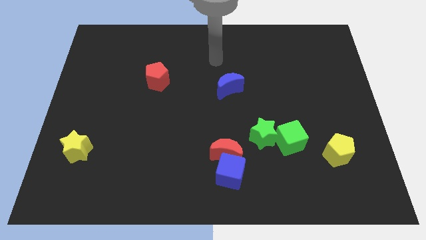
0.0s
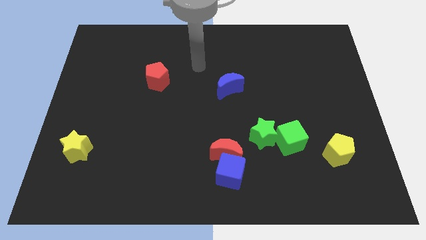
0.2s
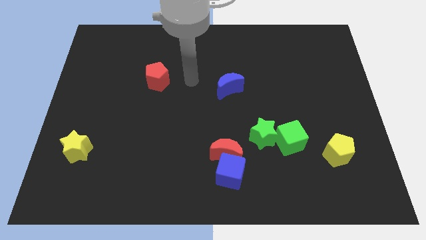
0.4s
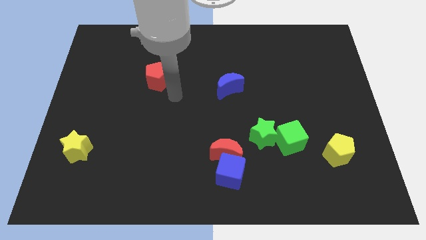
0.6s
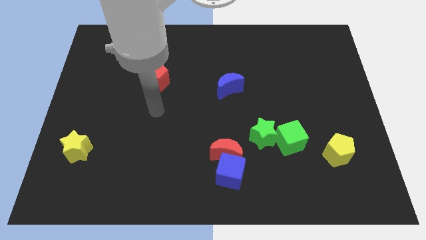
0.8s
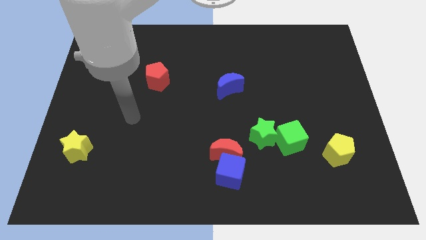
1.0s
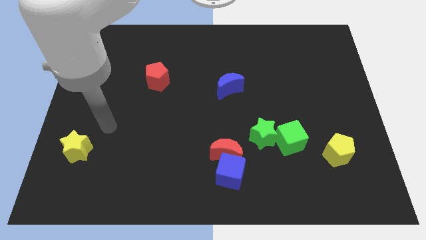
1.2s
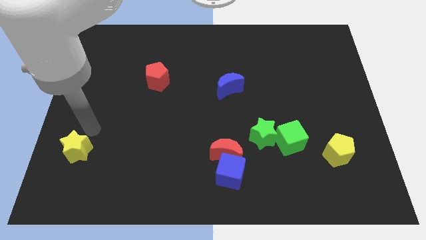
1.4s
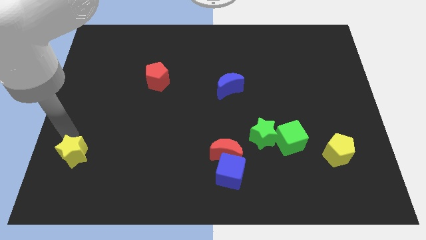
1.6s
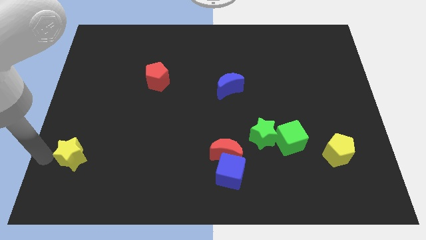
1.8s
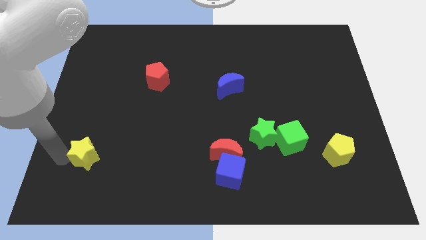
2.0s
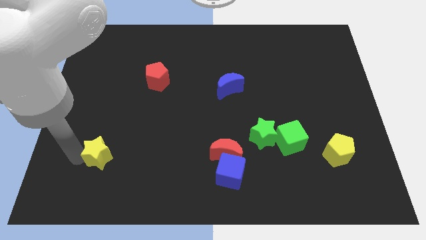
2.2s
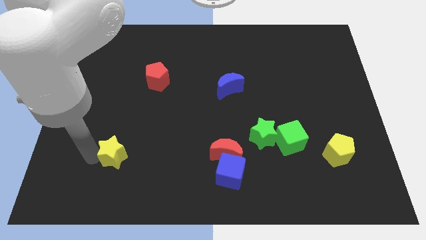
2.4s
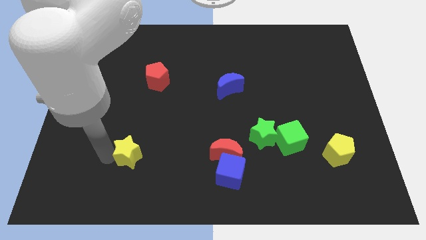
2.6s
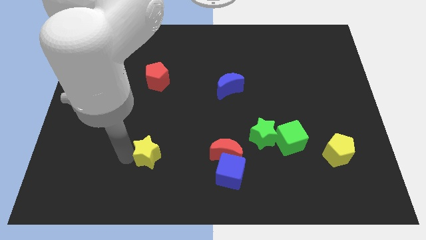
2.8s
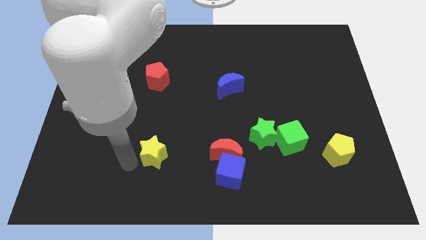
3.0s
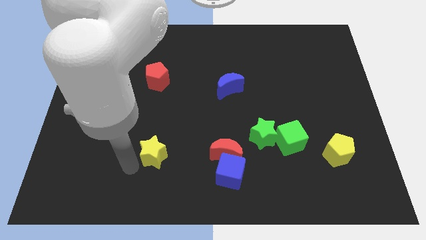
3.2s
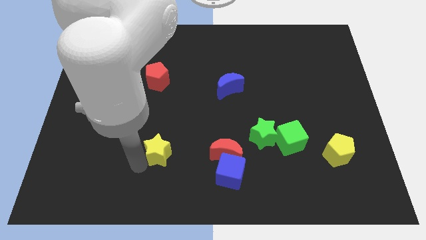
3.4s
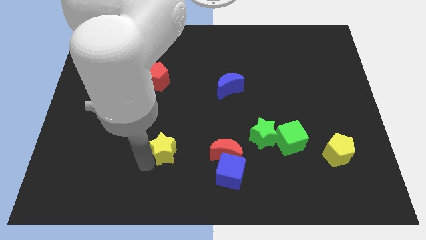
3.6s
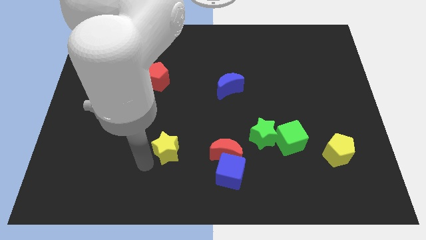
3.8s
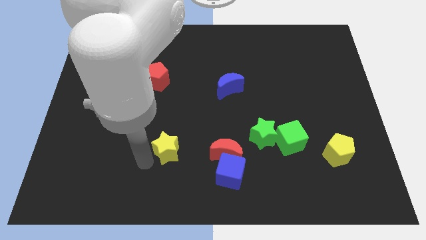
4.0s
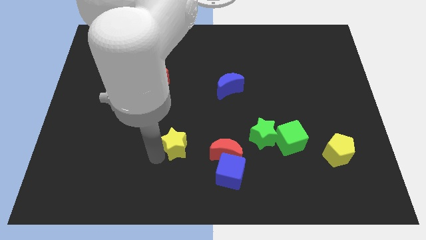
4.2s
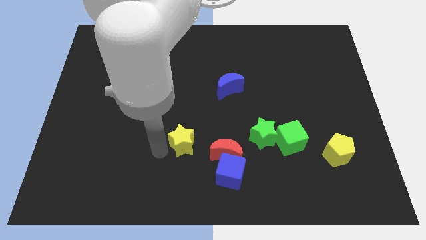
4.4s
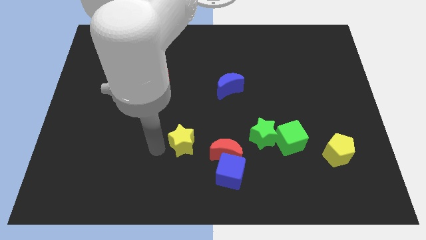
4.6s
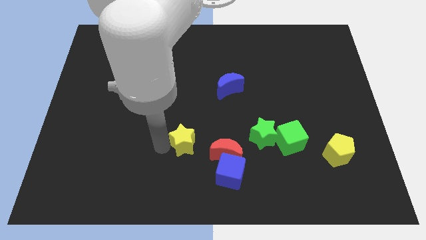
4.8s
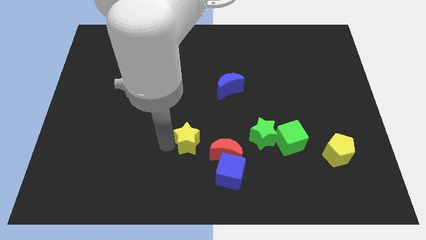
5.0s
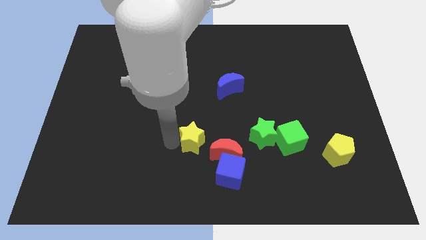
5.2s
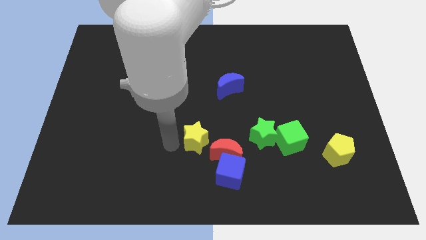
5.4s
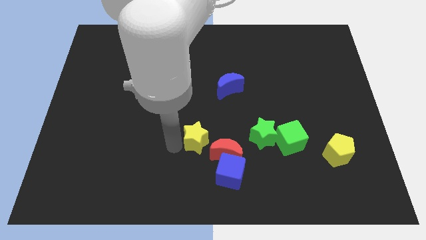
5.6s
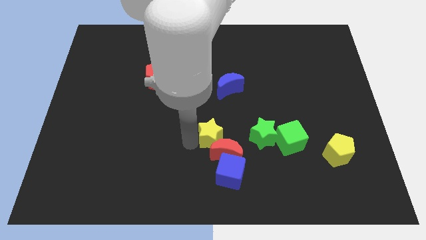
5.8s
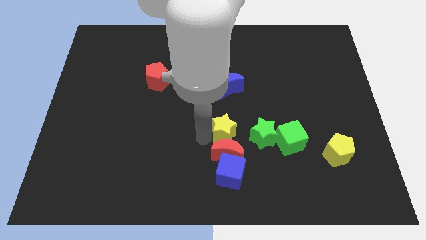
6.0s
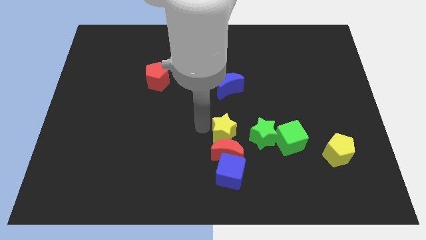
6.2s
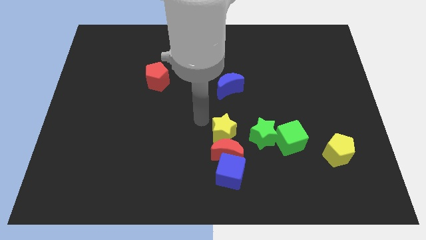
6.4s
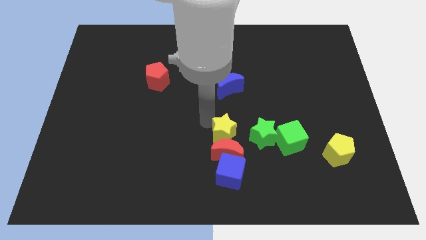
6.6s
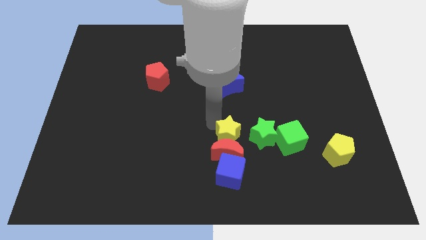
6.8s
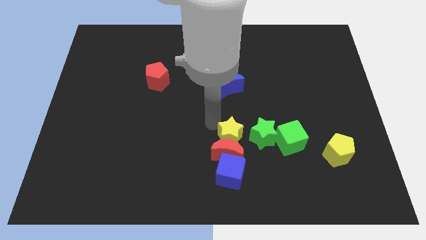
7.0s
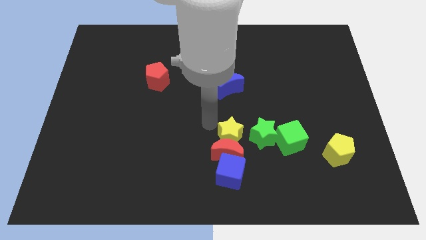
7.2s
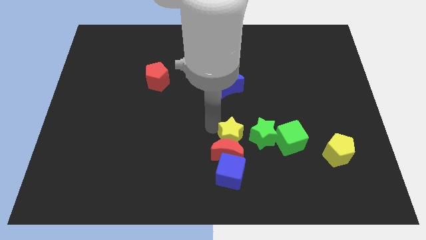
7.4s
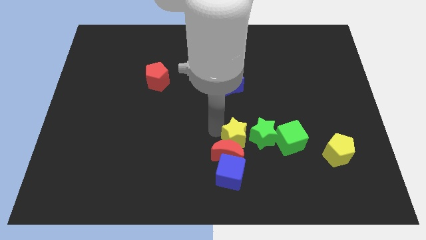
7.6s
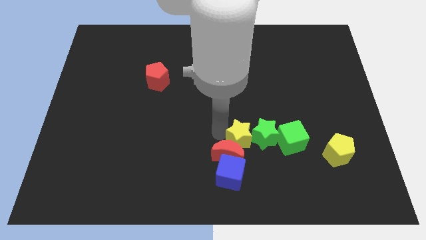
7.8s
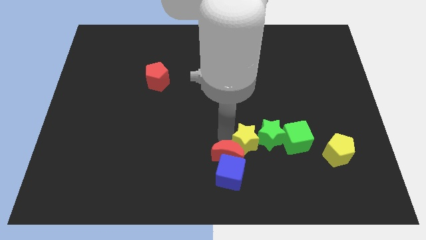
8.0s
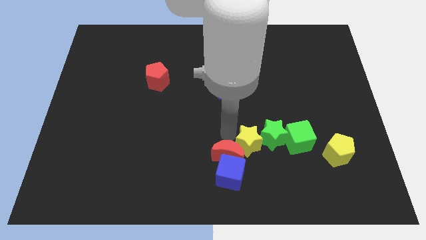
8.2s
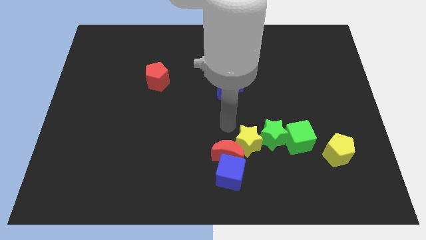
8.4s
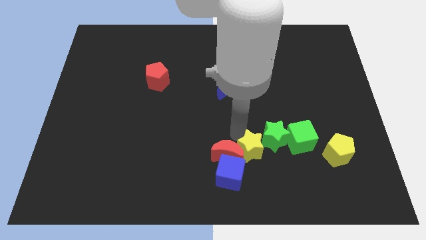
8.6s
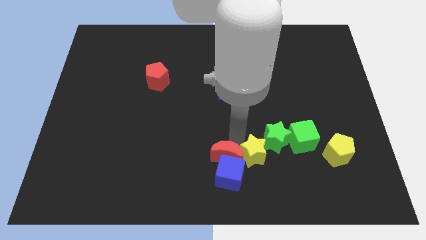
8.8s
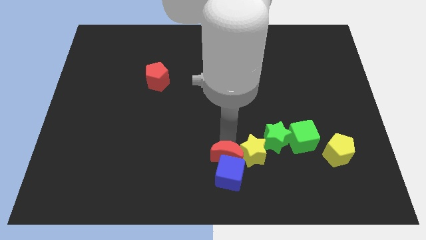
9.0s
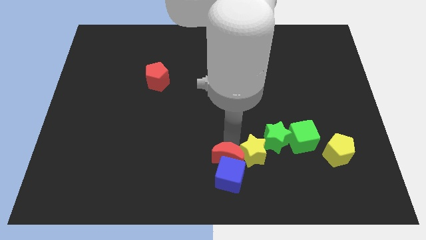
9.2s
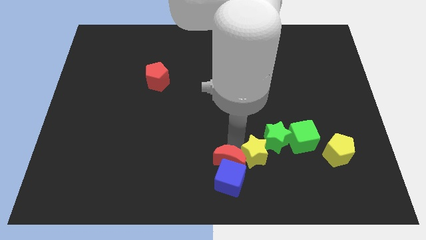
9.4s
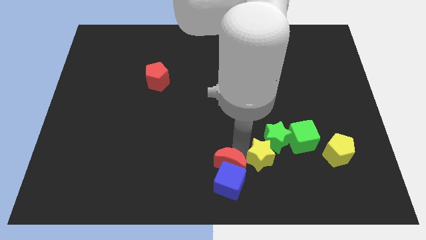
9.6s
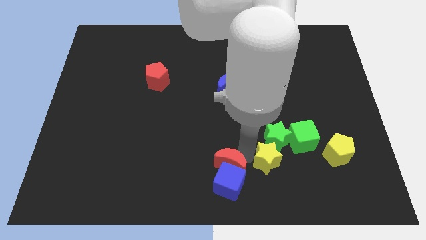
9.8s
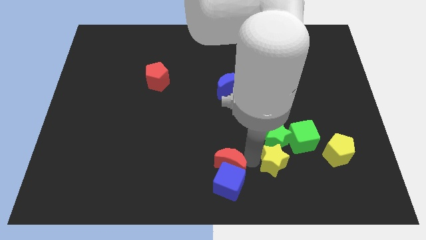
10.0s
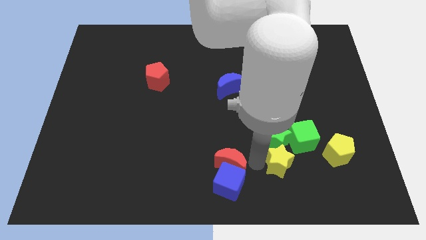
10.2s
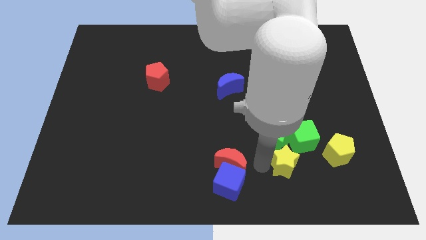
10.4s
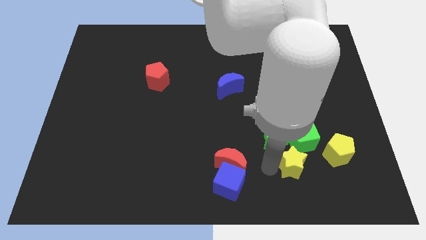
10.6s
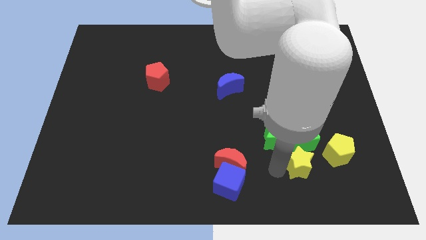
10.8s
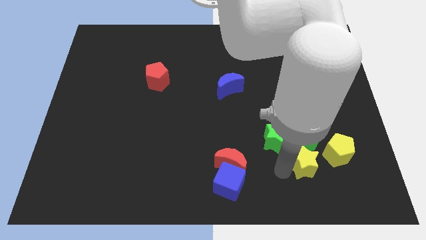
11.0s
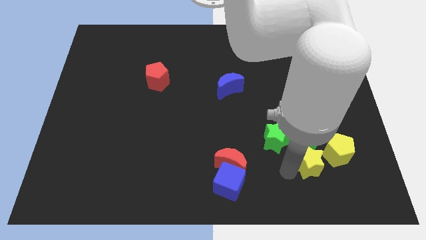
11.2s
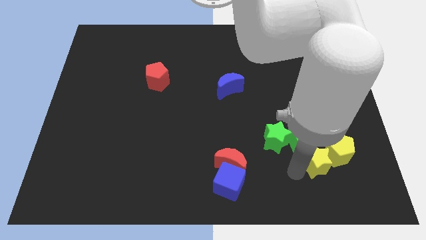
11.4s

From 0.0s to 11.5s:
put the yellow star to the yellow pentagon

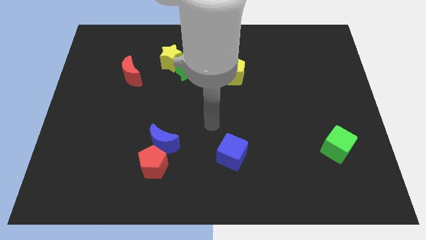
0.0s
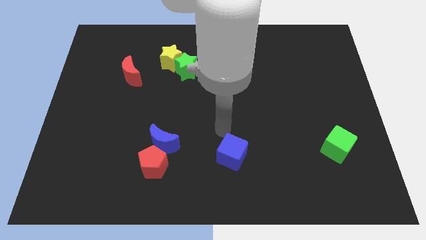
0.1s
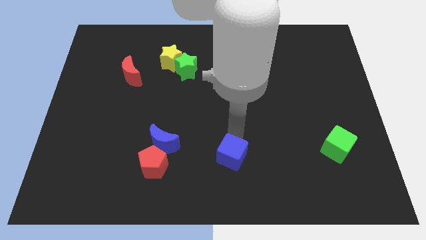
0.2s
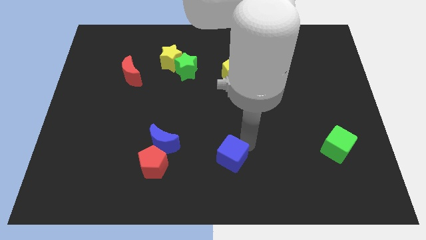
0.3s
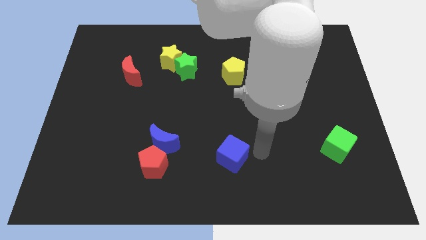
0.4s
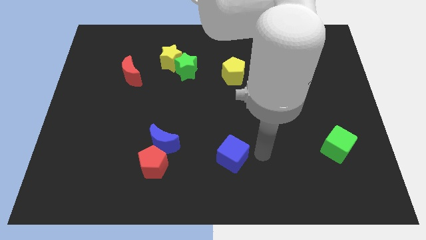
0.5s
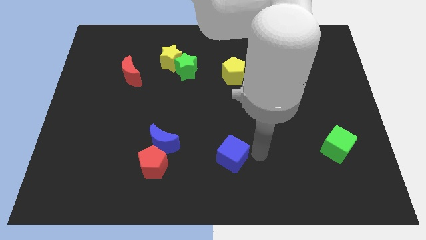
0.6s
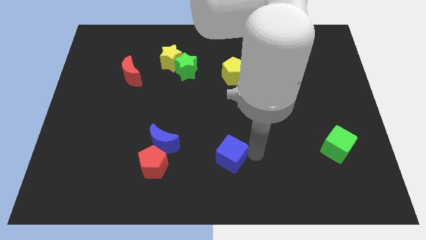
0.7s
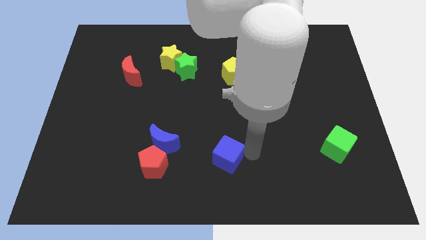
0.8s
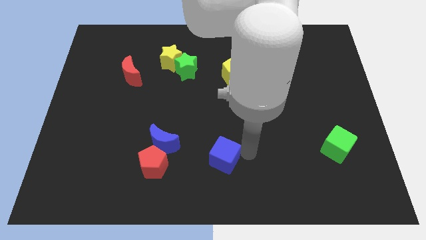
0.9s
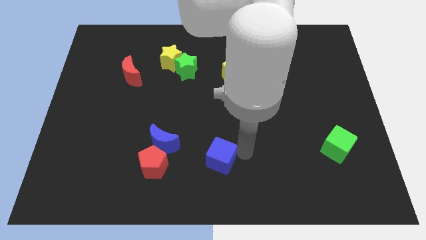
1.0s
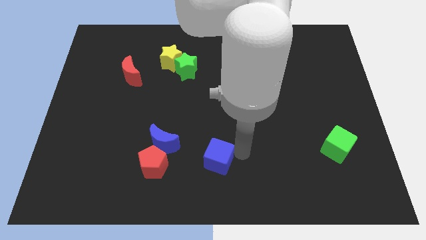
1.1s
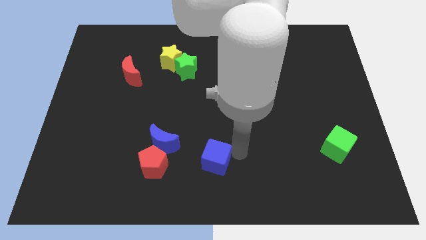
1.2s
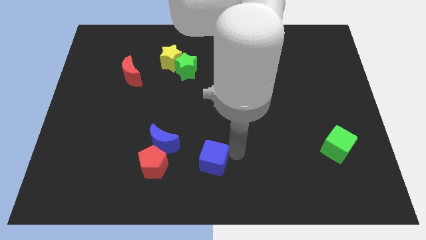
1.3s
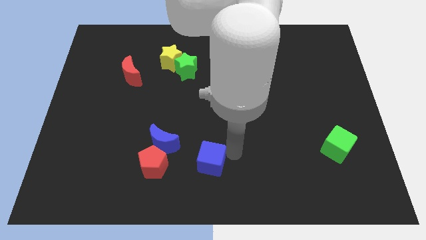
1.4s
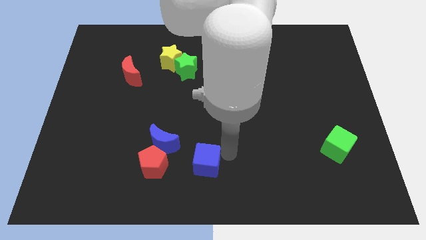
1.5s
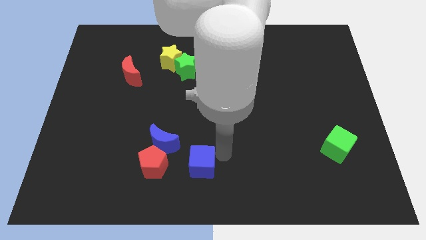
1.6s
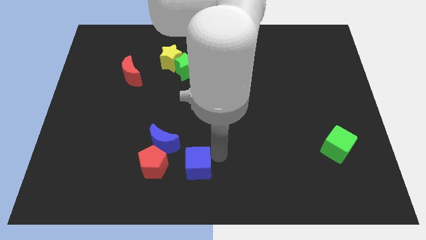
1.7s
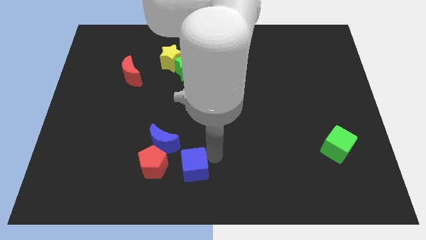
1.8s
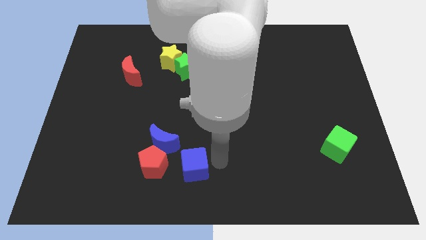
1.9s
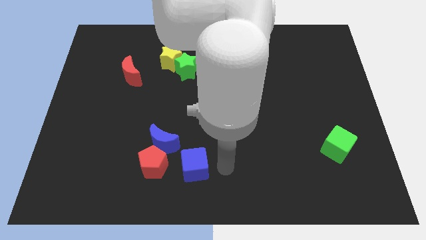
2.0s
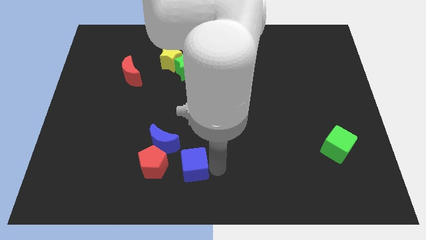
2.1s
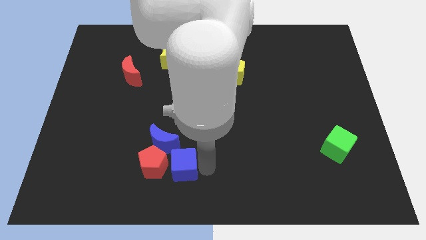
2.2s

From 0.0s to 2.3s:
move the blue cube close to the red pentagon
